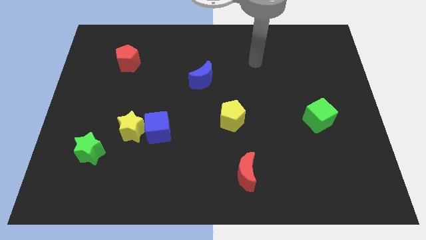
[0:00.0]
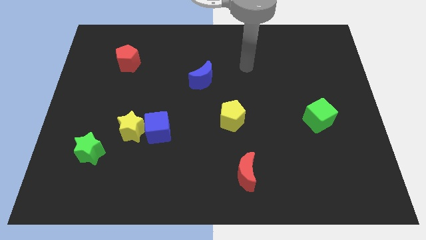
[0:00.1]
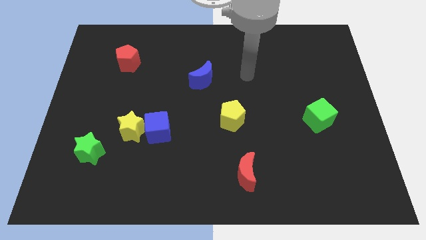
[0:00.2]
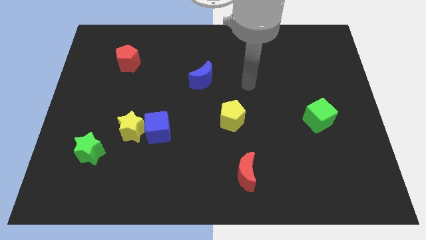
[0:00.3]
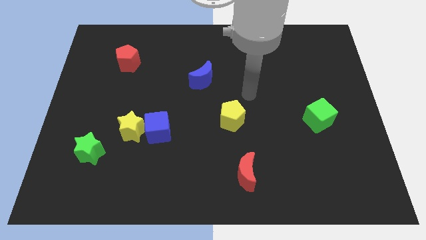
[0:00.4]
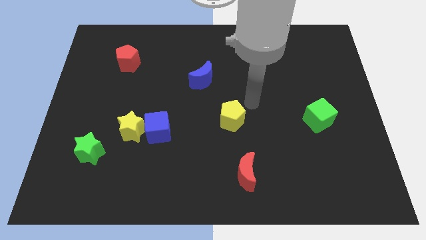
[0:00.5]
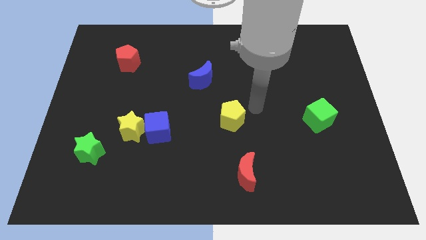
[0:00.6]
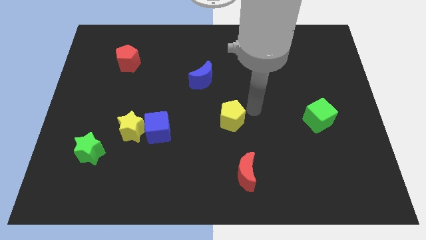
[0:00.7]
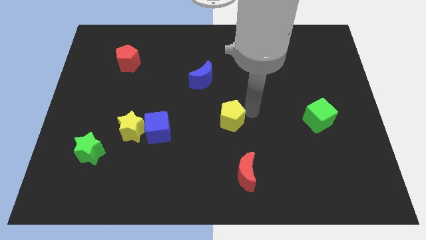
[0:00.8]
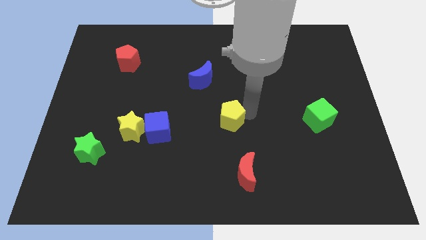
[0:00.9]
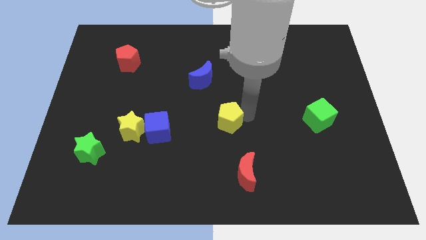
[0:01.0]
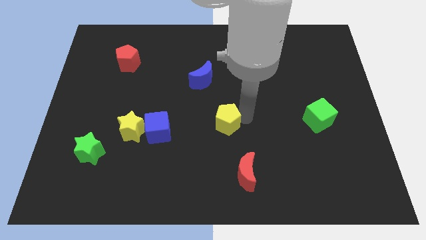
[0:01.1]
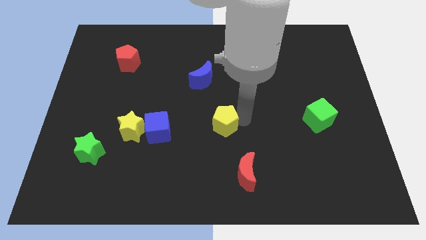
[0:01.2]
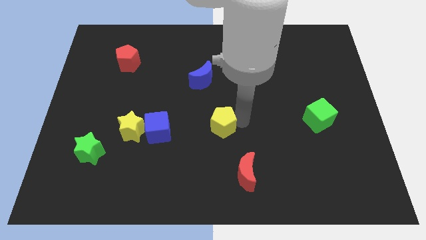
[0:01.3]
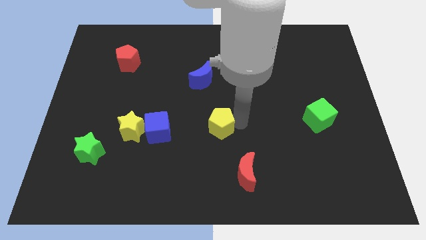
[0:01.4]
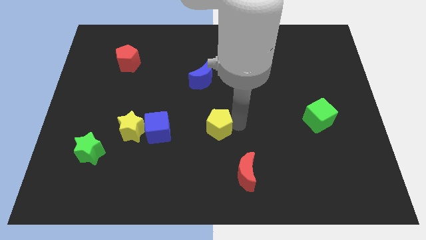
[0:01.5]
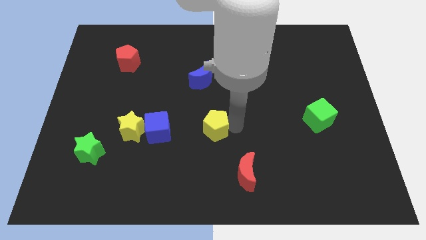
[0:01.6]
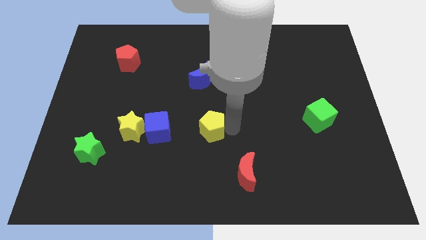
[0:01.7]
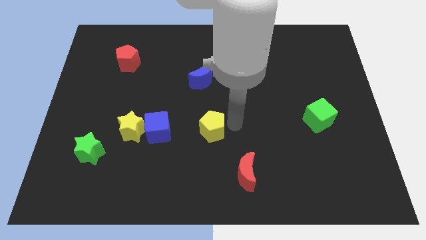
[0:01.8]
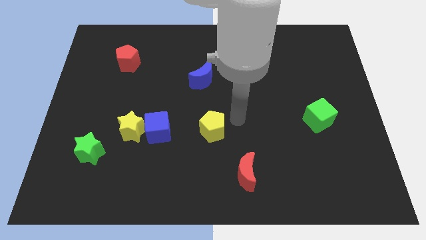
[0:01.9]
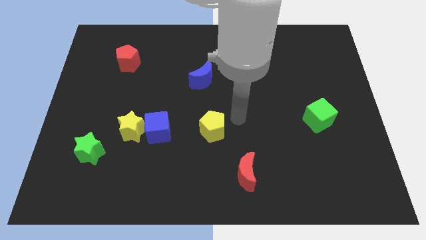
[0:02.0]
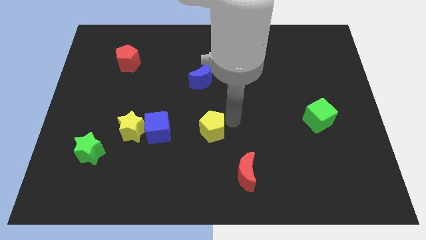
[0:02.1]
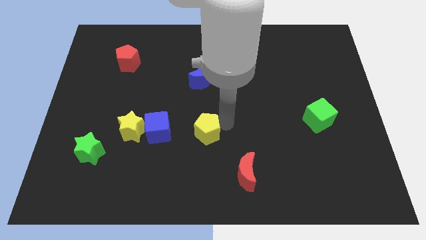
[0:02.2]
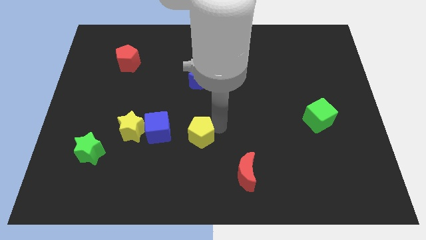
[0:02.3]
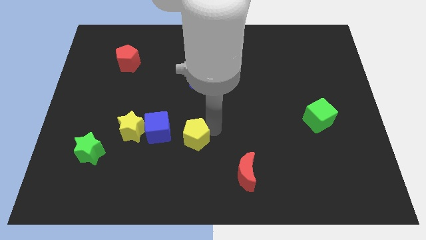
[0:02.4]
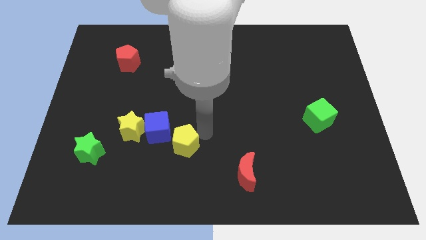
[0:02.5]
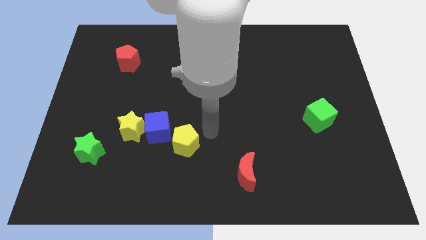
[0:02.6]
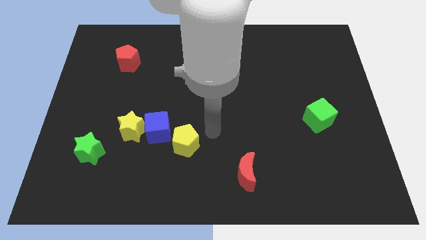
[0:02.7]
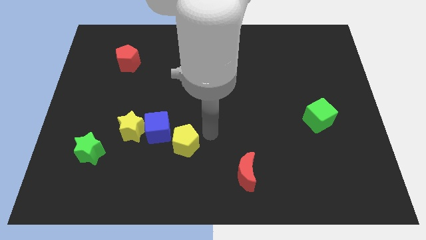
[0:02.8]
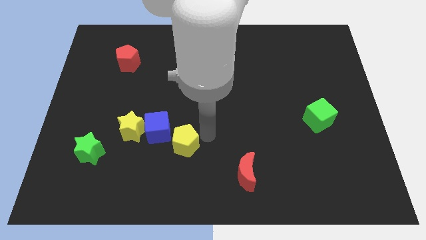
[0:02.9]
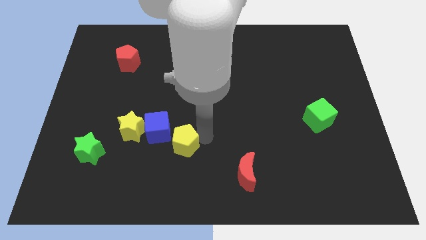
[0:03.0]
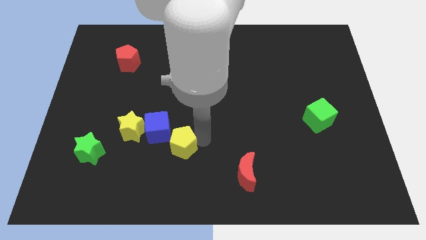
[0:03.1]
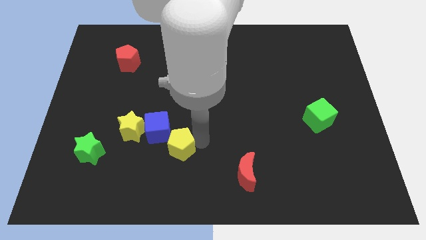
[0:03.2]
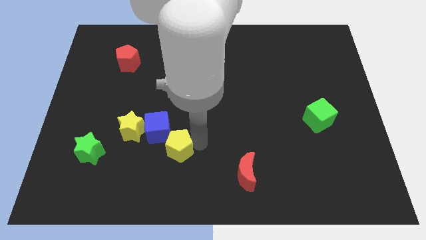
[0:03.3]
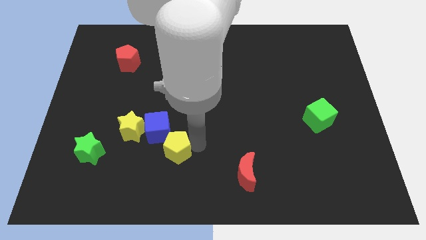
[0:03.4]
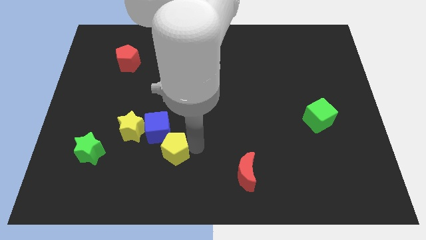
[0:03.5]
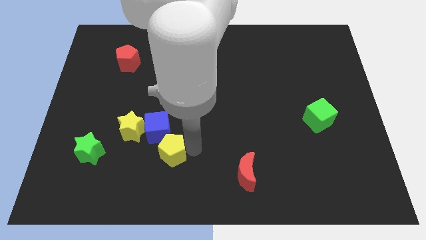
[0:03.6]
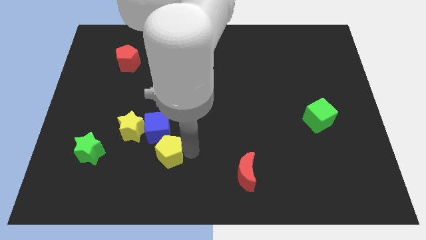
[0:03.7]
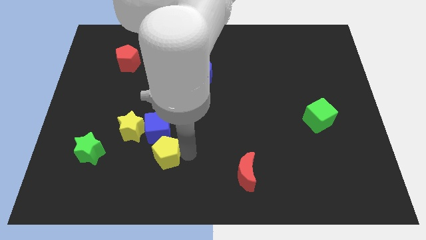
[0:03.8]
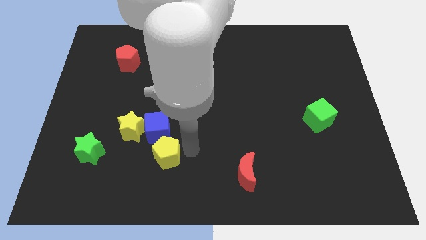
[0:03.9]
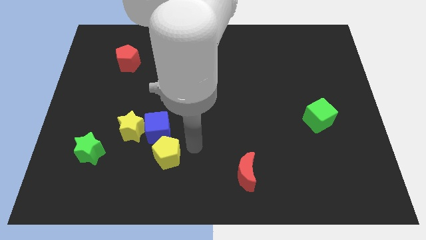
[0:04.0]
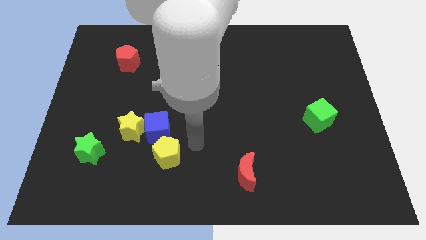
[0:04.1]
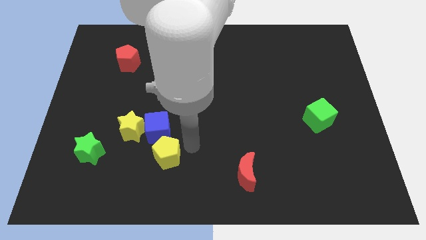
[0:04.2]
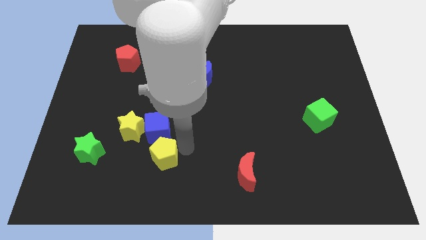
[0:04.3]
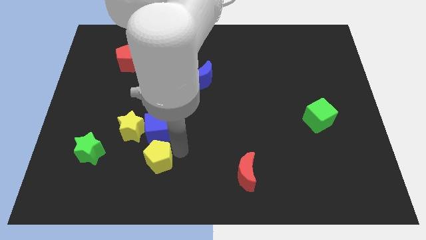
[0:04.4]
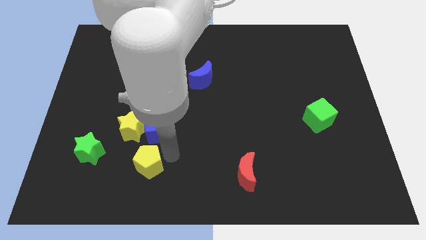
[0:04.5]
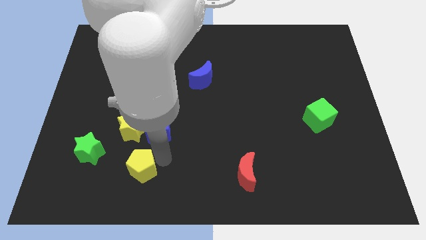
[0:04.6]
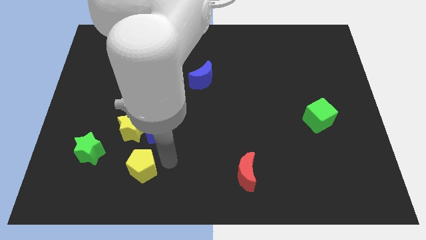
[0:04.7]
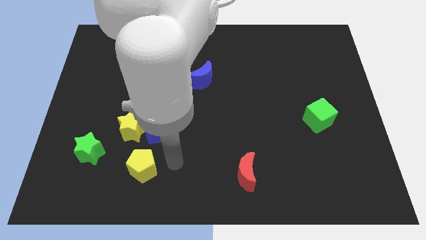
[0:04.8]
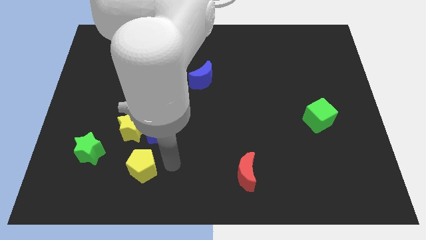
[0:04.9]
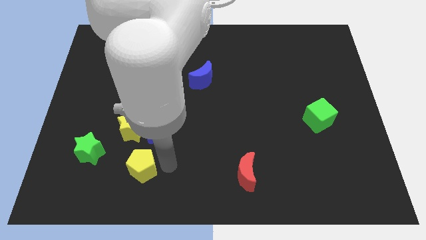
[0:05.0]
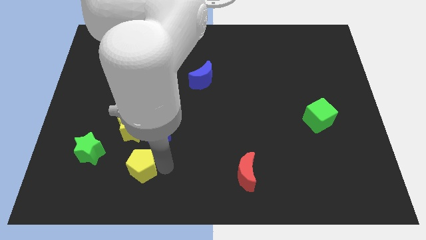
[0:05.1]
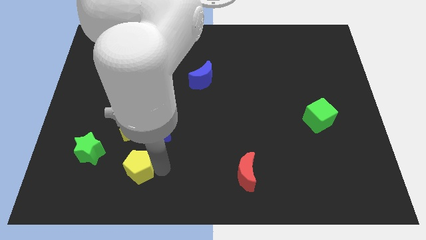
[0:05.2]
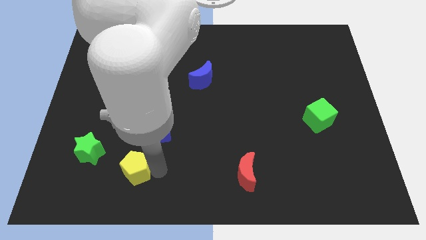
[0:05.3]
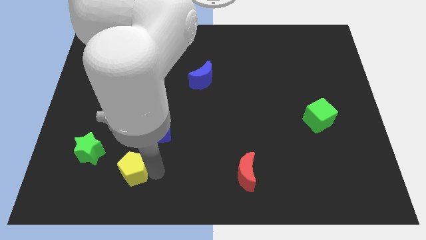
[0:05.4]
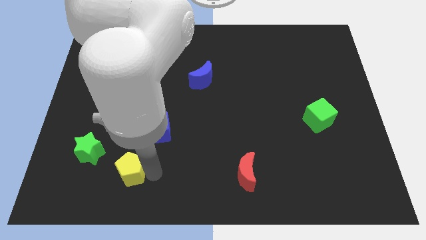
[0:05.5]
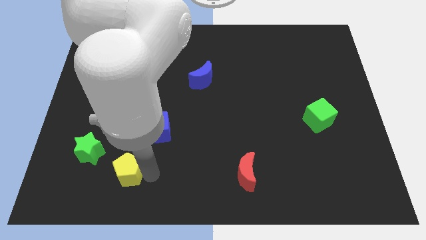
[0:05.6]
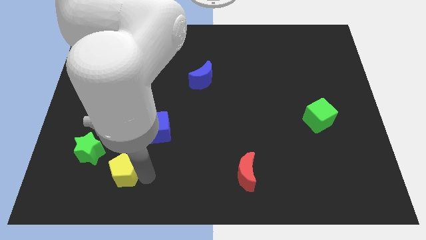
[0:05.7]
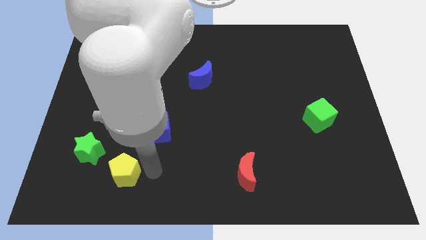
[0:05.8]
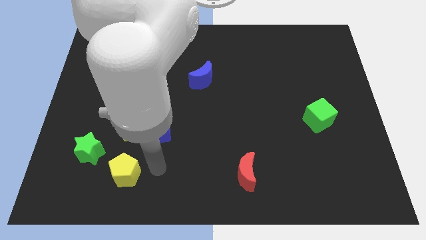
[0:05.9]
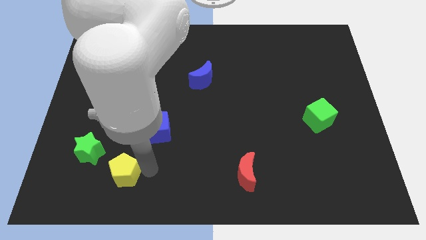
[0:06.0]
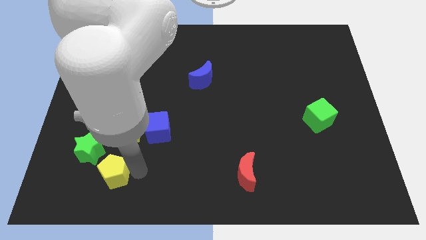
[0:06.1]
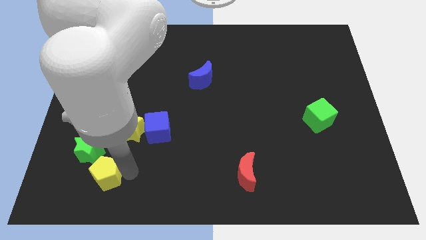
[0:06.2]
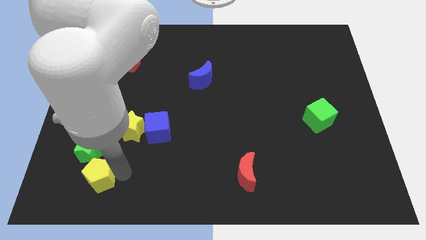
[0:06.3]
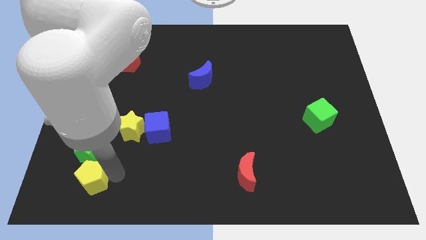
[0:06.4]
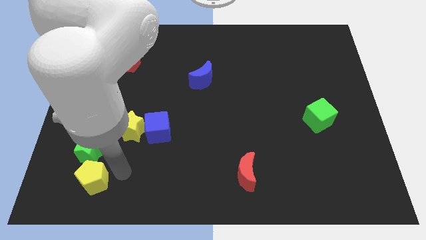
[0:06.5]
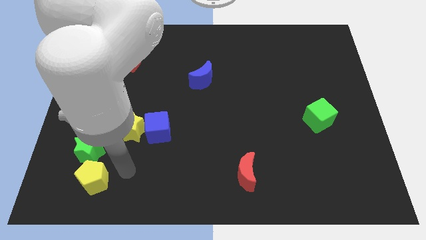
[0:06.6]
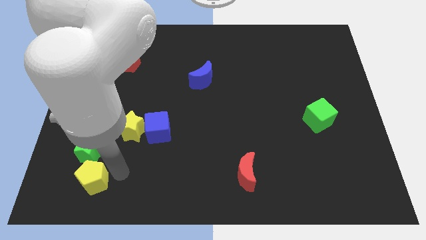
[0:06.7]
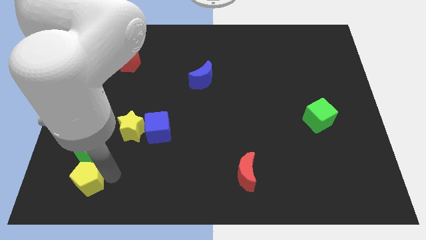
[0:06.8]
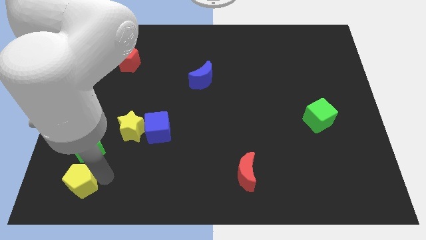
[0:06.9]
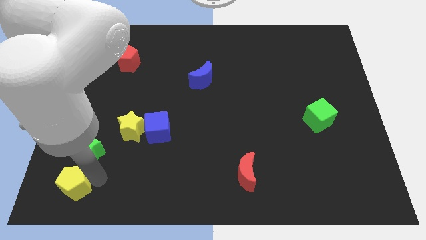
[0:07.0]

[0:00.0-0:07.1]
put the yellow pentagon to the bottom left corner
